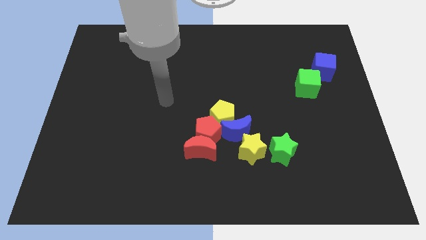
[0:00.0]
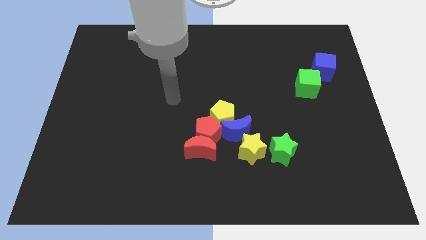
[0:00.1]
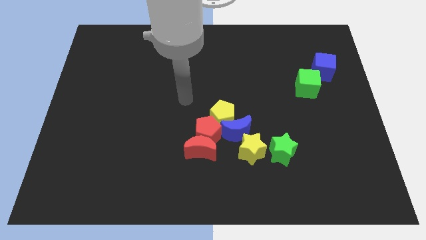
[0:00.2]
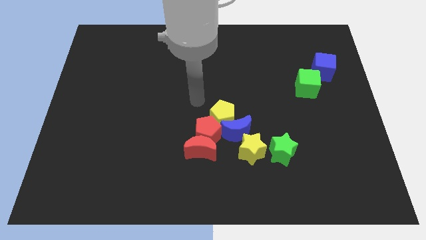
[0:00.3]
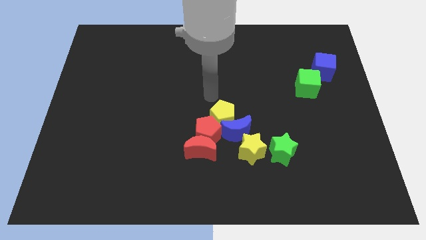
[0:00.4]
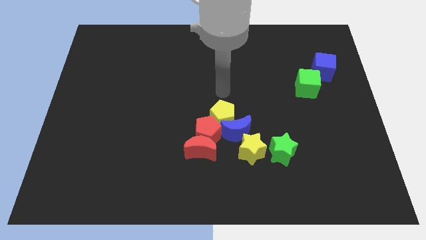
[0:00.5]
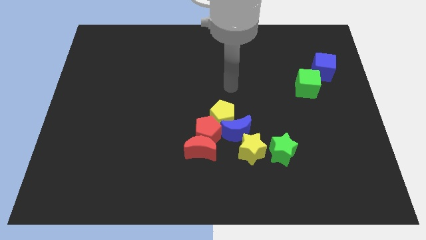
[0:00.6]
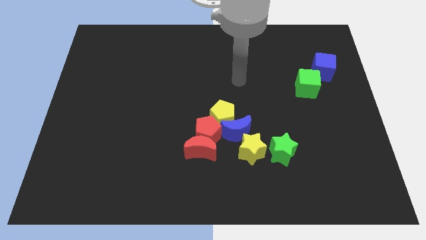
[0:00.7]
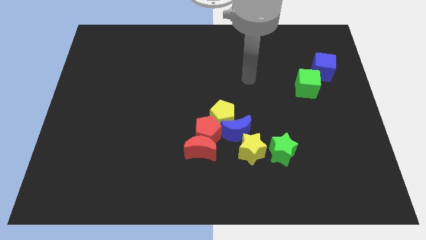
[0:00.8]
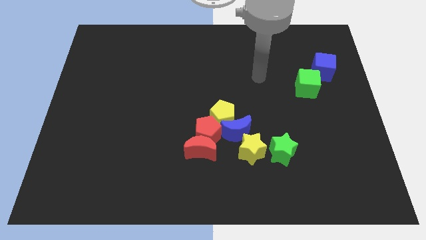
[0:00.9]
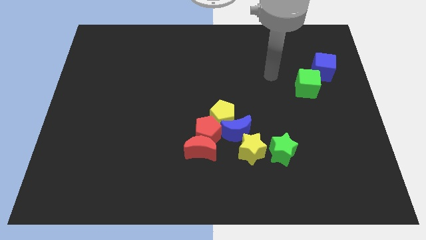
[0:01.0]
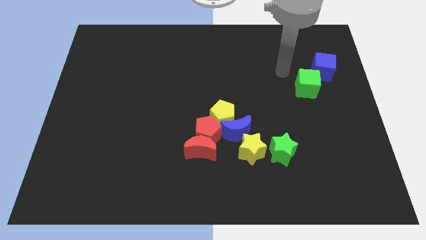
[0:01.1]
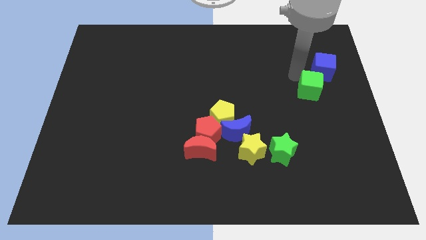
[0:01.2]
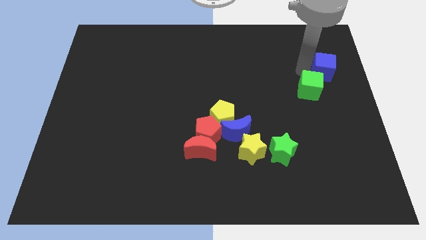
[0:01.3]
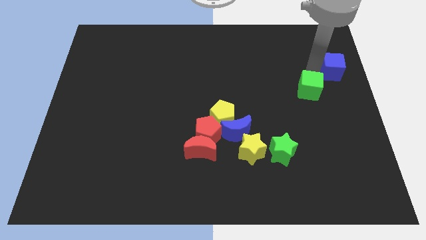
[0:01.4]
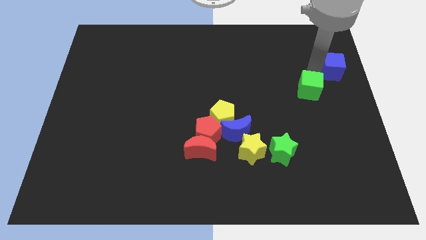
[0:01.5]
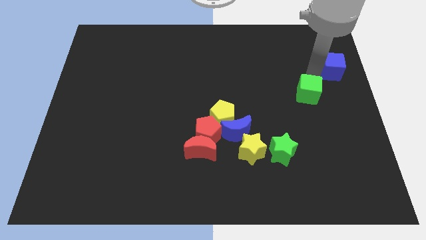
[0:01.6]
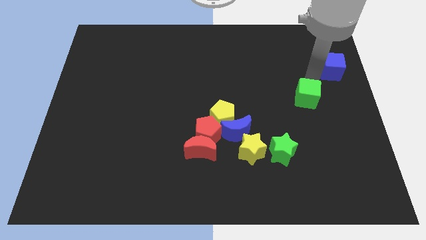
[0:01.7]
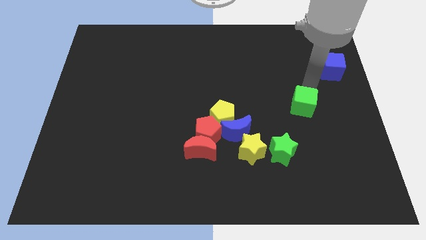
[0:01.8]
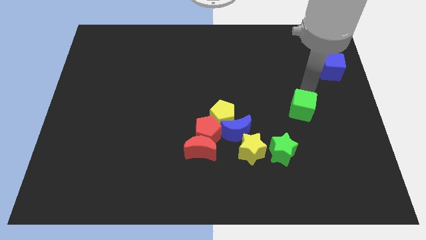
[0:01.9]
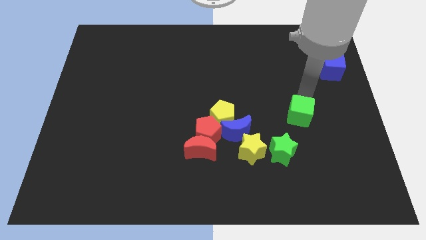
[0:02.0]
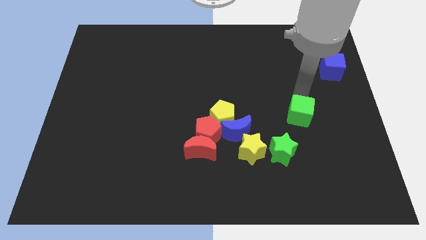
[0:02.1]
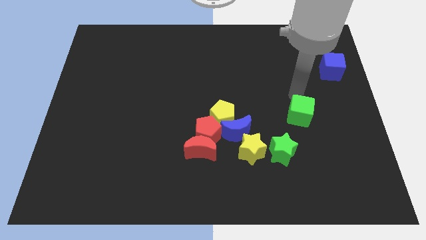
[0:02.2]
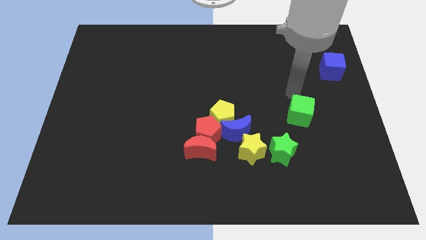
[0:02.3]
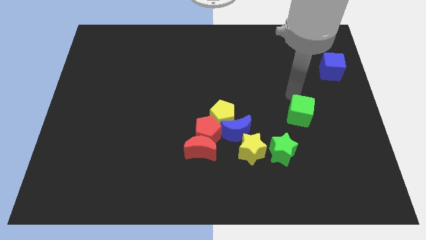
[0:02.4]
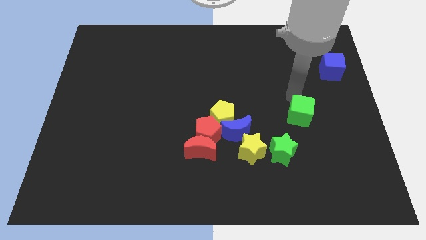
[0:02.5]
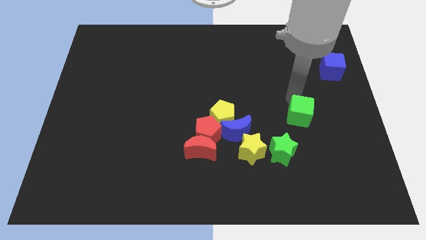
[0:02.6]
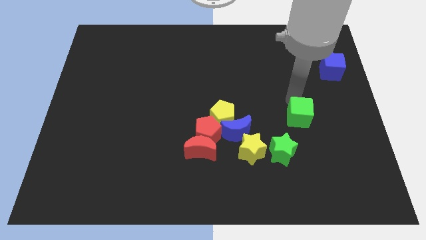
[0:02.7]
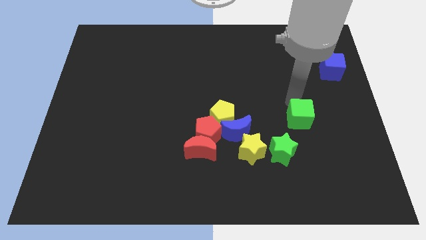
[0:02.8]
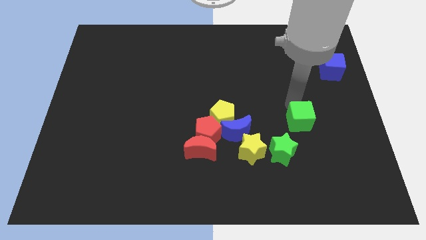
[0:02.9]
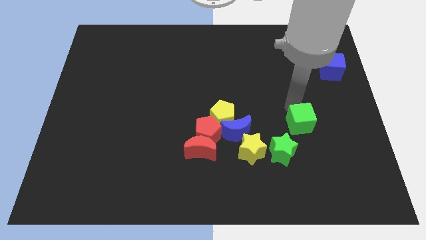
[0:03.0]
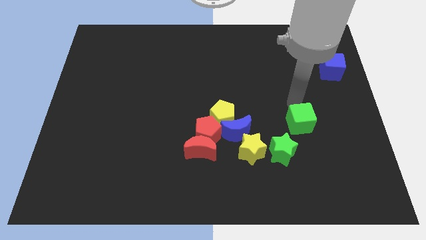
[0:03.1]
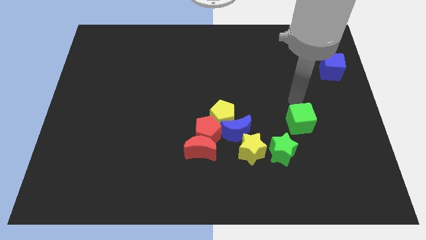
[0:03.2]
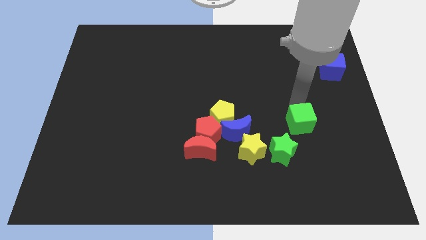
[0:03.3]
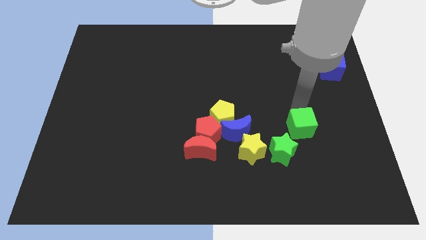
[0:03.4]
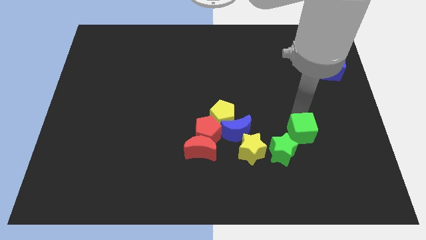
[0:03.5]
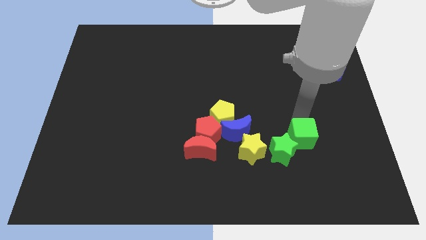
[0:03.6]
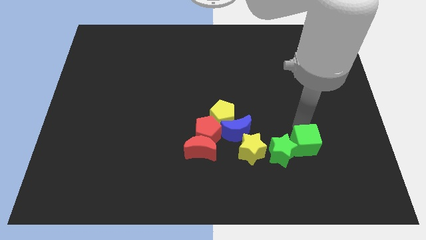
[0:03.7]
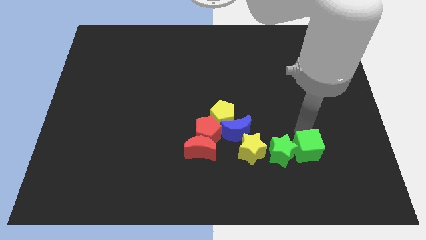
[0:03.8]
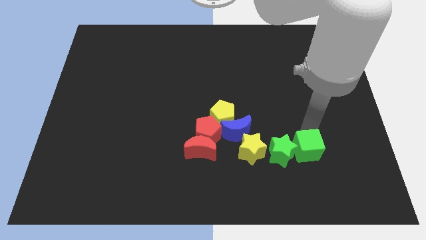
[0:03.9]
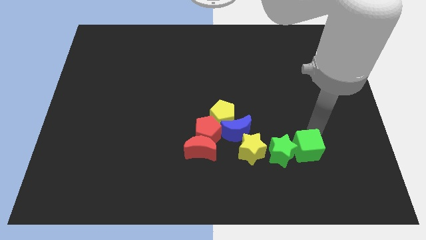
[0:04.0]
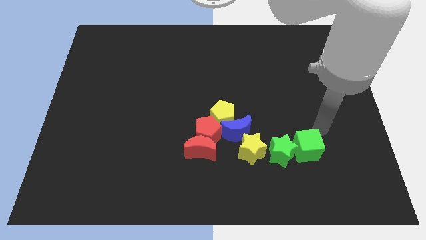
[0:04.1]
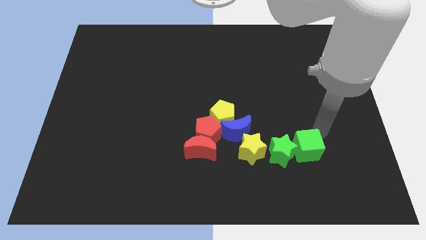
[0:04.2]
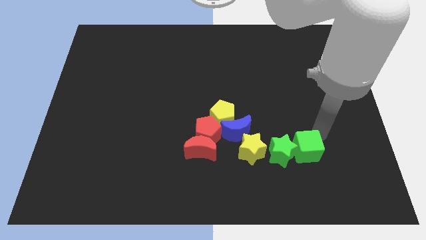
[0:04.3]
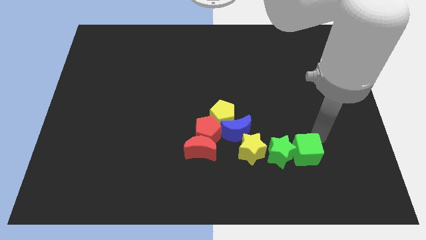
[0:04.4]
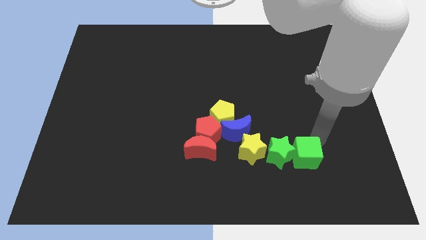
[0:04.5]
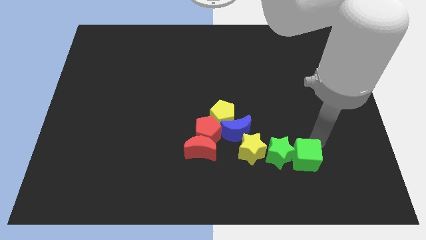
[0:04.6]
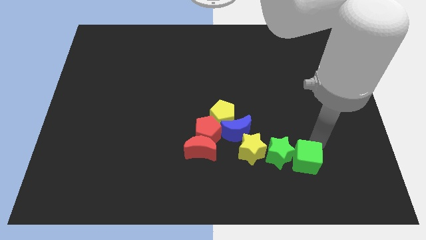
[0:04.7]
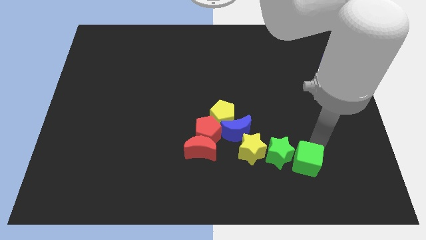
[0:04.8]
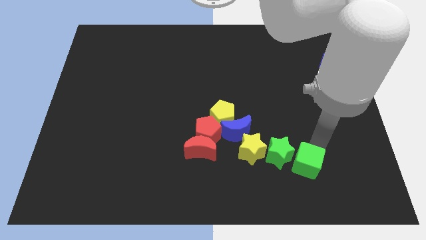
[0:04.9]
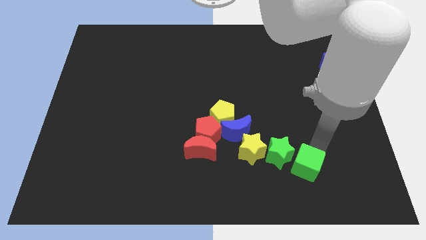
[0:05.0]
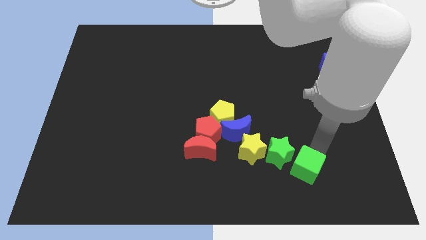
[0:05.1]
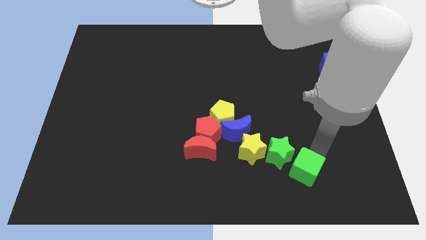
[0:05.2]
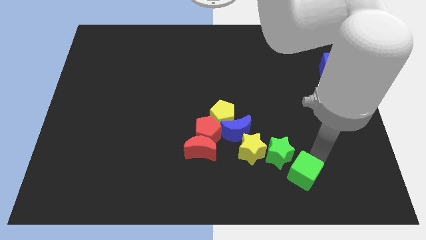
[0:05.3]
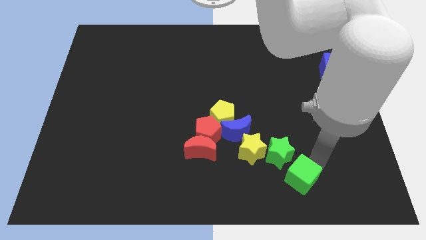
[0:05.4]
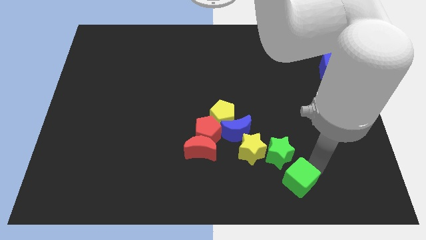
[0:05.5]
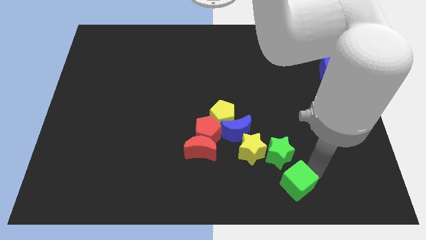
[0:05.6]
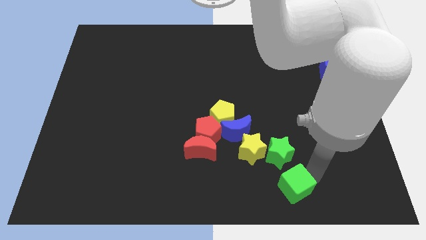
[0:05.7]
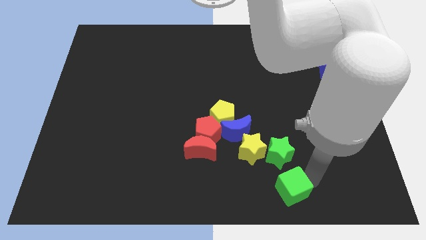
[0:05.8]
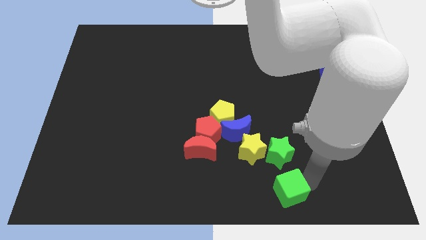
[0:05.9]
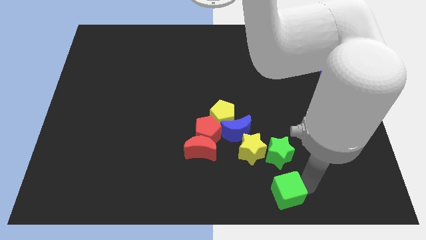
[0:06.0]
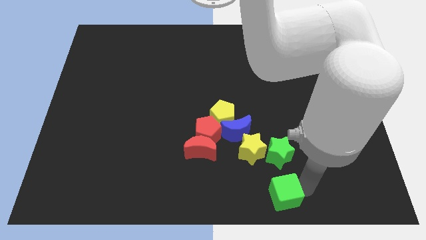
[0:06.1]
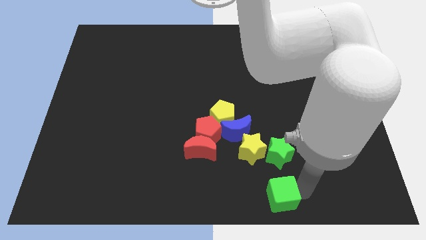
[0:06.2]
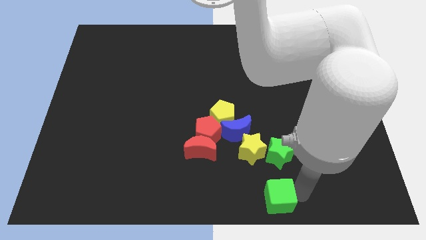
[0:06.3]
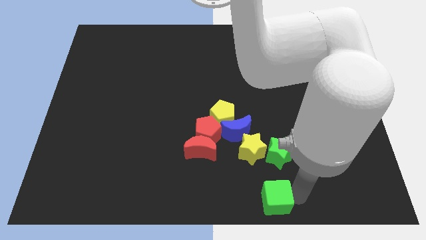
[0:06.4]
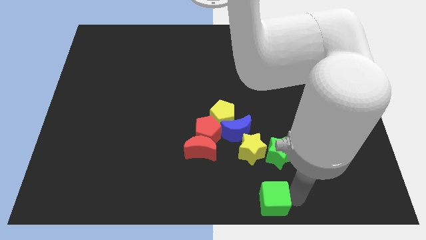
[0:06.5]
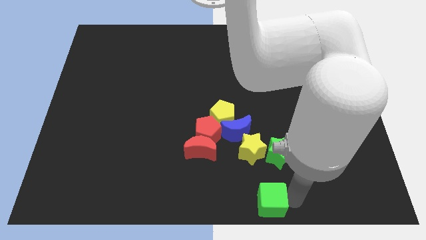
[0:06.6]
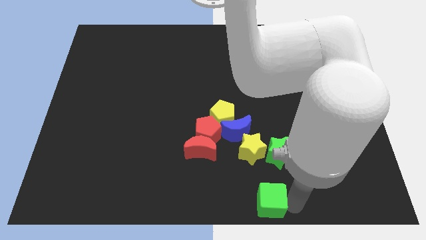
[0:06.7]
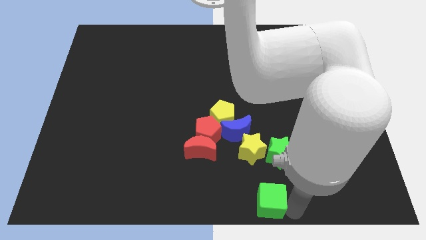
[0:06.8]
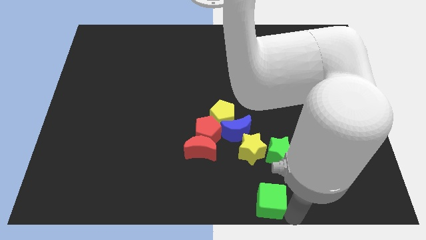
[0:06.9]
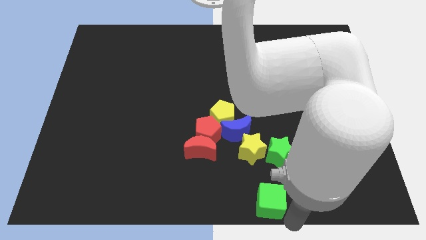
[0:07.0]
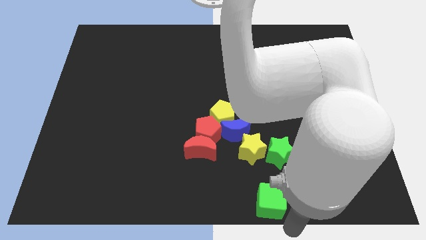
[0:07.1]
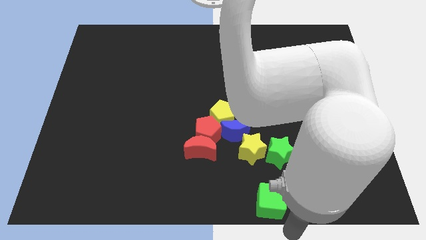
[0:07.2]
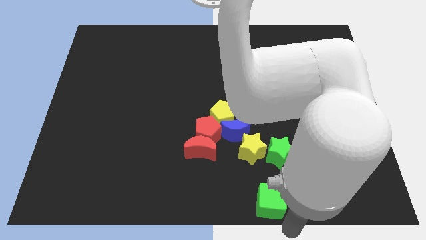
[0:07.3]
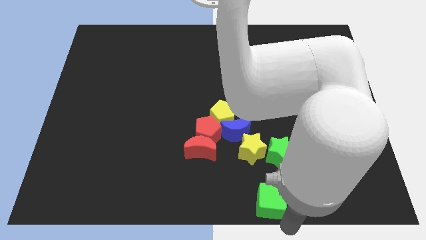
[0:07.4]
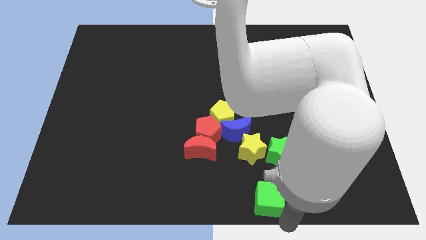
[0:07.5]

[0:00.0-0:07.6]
move the green cube downwards and then left
